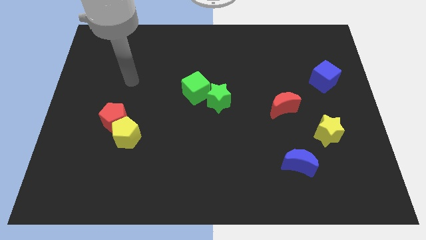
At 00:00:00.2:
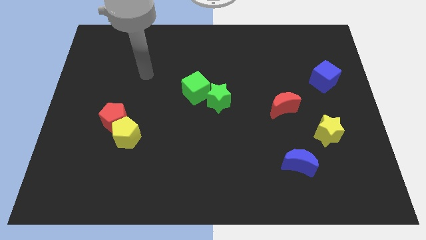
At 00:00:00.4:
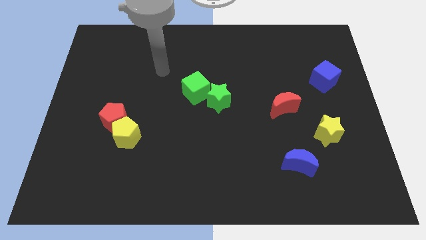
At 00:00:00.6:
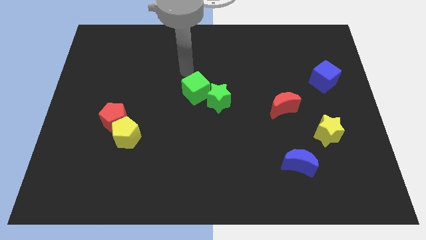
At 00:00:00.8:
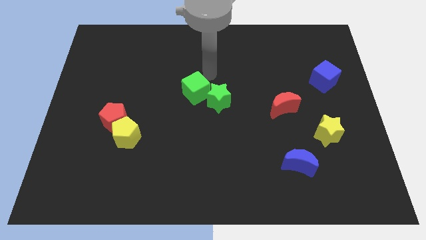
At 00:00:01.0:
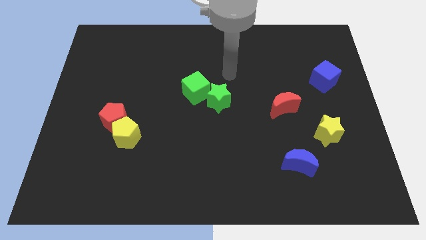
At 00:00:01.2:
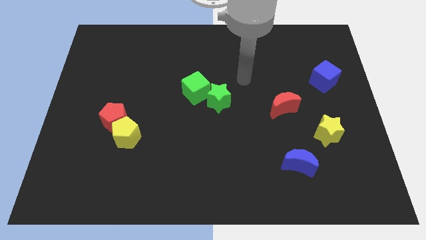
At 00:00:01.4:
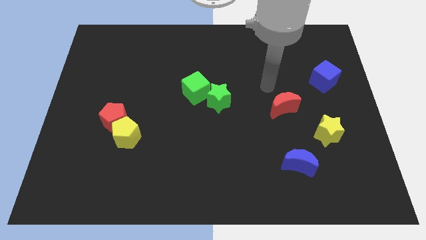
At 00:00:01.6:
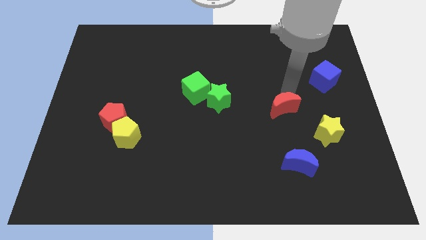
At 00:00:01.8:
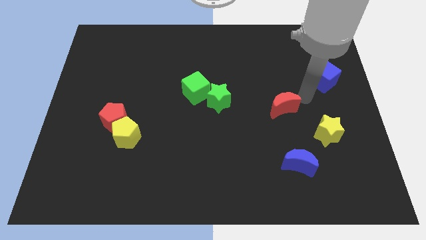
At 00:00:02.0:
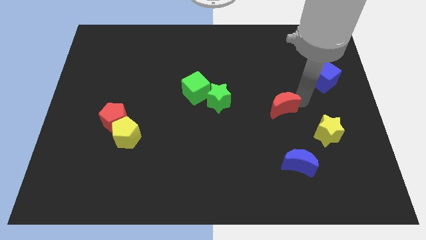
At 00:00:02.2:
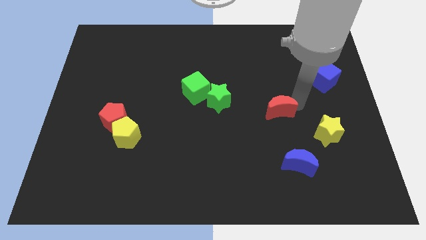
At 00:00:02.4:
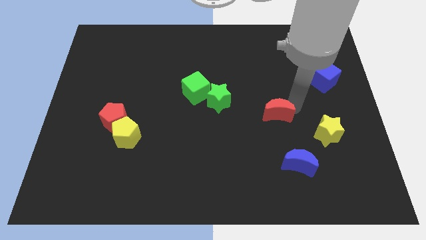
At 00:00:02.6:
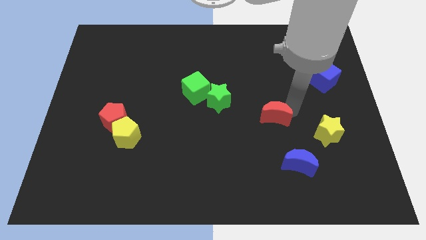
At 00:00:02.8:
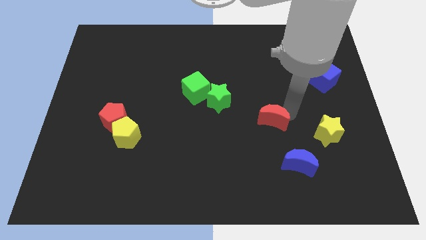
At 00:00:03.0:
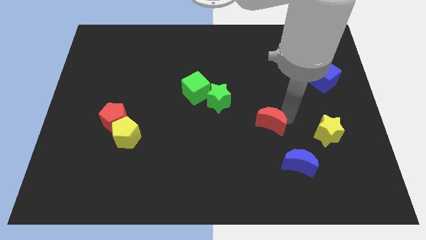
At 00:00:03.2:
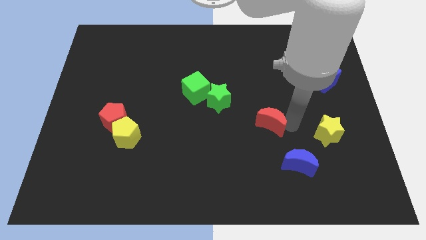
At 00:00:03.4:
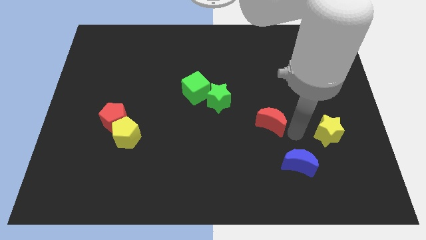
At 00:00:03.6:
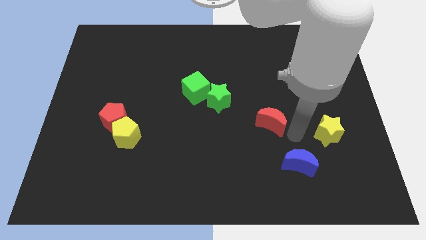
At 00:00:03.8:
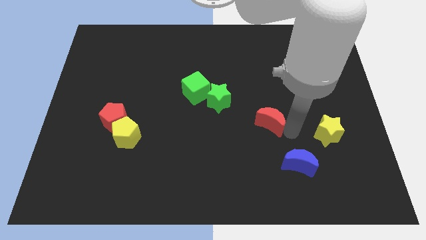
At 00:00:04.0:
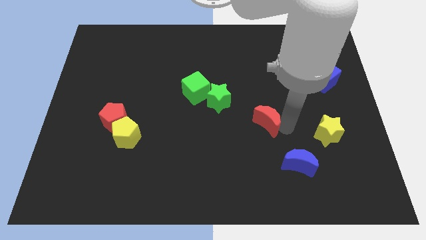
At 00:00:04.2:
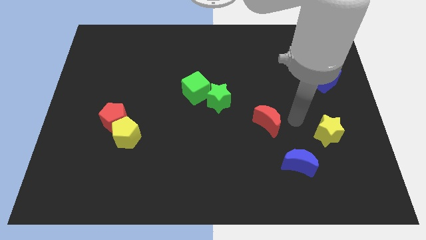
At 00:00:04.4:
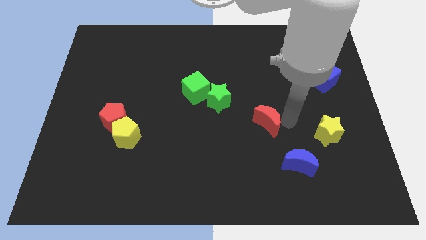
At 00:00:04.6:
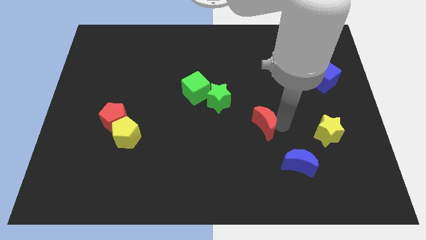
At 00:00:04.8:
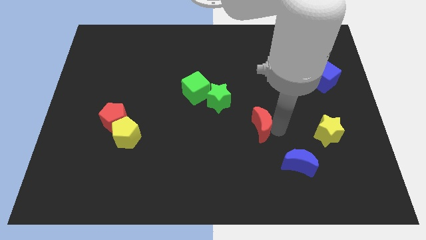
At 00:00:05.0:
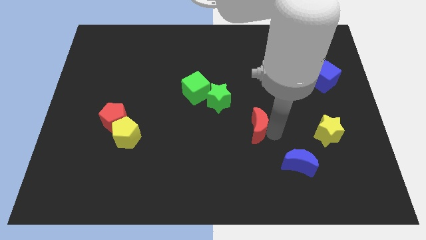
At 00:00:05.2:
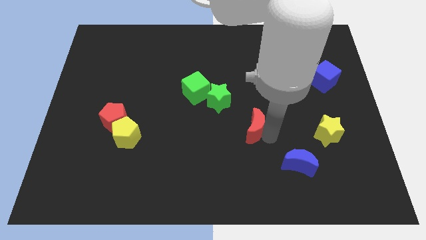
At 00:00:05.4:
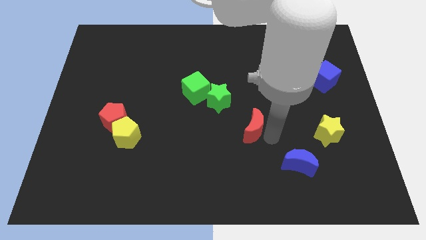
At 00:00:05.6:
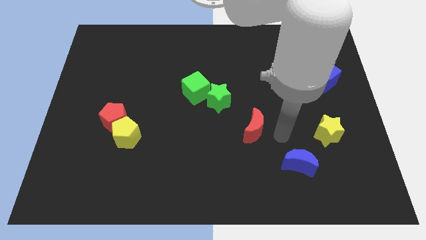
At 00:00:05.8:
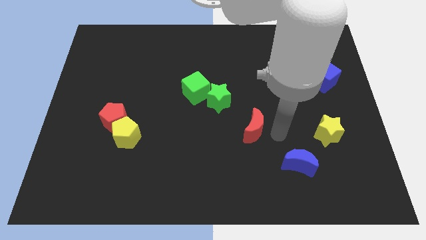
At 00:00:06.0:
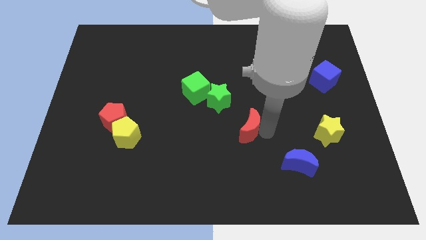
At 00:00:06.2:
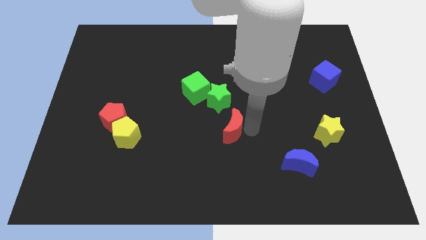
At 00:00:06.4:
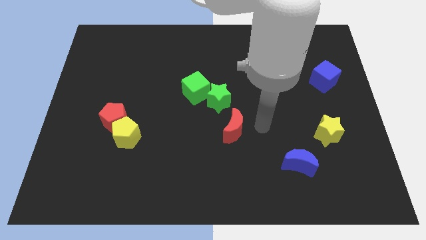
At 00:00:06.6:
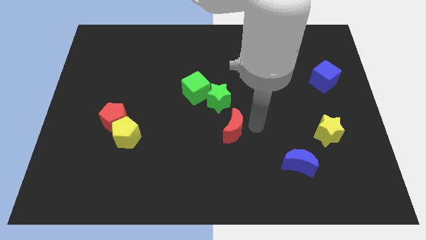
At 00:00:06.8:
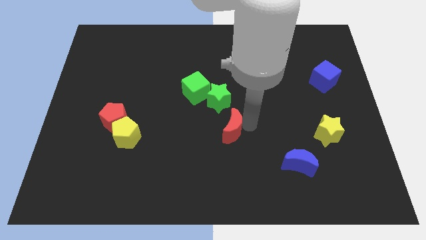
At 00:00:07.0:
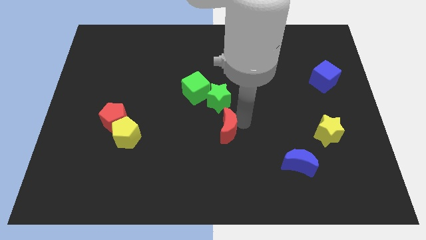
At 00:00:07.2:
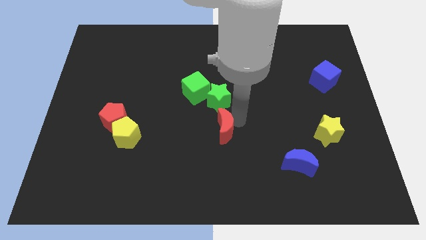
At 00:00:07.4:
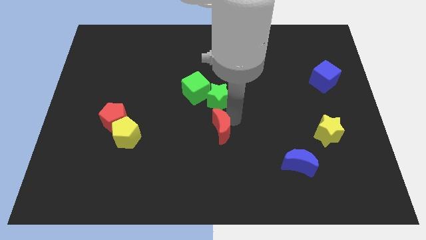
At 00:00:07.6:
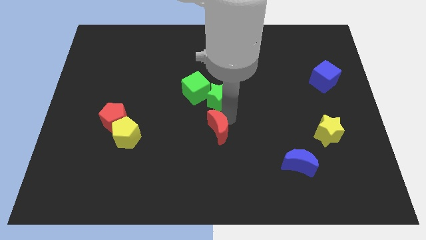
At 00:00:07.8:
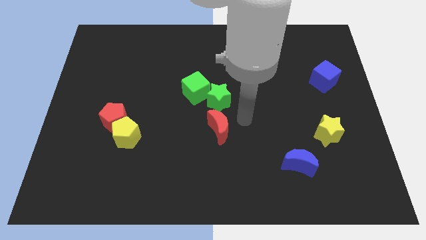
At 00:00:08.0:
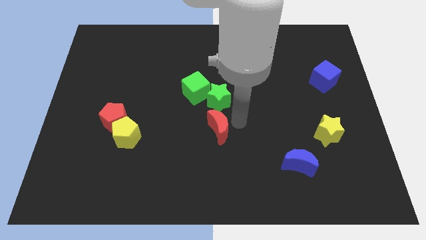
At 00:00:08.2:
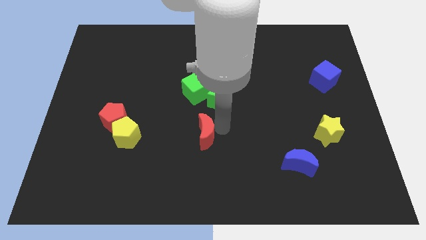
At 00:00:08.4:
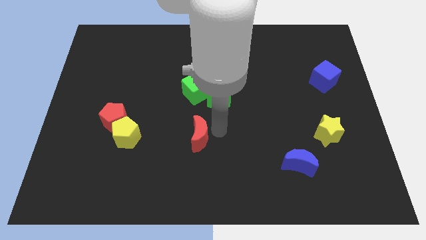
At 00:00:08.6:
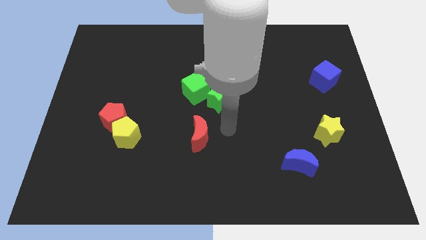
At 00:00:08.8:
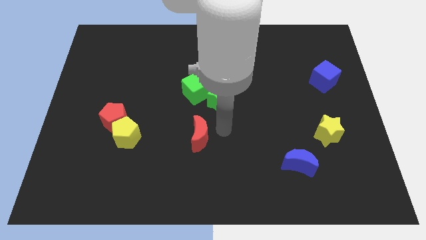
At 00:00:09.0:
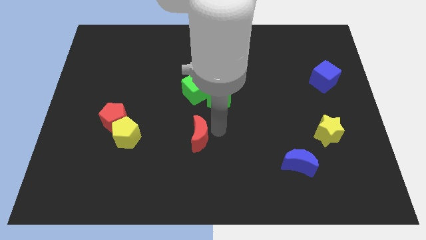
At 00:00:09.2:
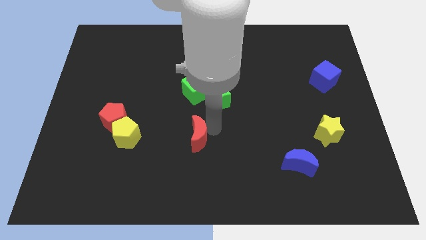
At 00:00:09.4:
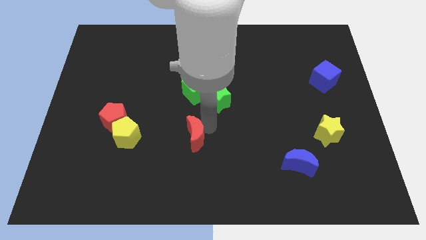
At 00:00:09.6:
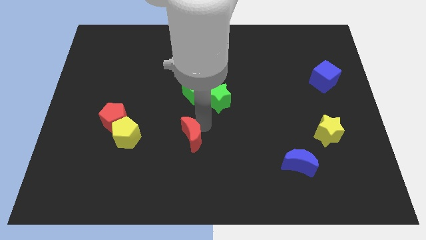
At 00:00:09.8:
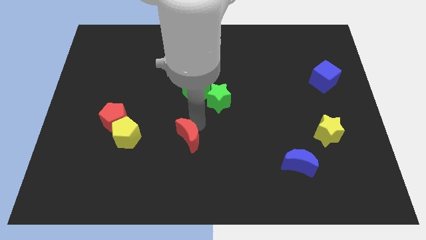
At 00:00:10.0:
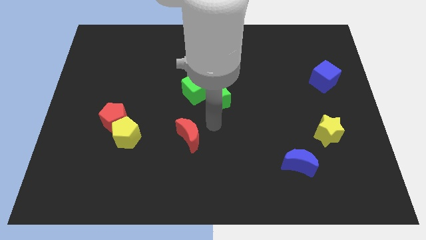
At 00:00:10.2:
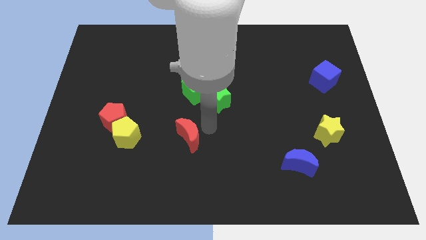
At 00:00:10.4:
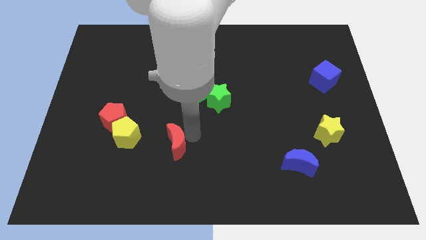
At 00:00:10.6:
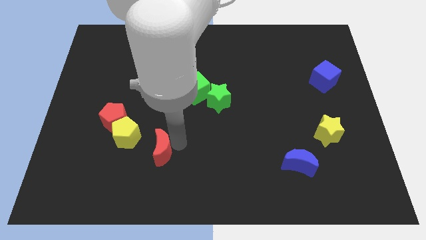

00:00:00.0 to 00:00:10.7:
push the red moon diagonally down and to the right of the yellow pentagon
